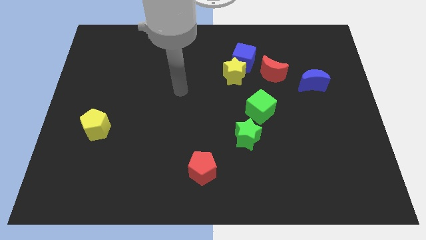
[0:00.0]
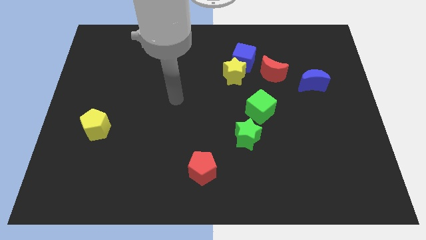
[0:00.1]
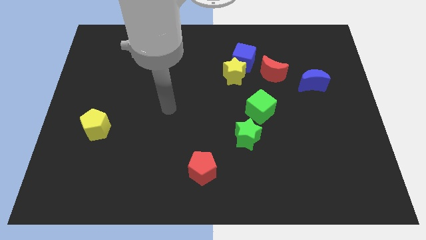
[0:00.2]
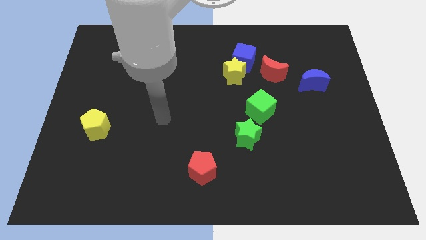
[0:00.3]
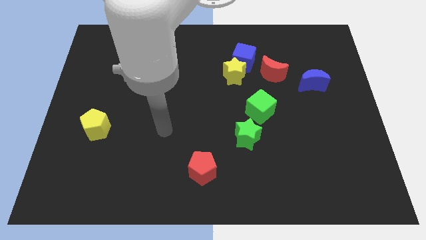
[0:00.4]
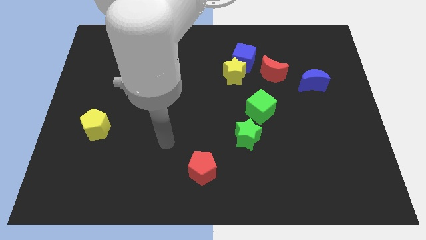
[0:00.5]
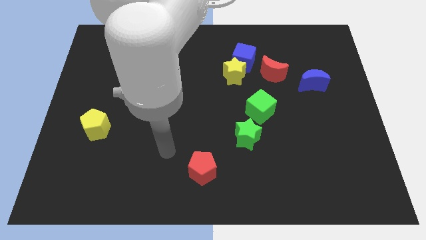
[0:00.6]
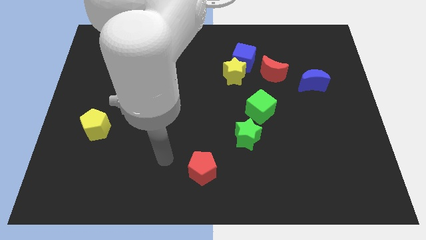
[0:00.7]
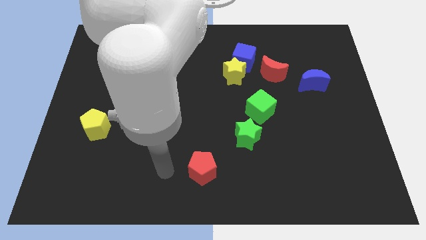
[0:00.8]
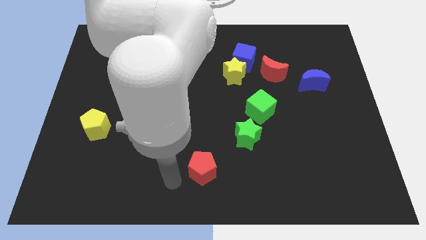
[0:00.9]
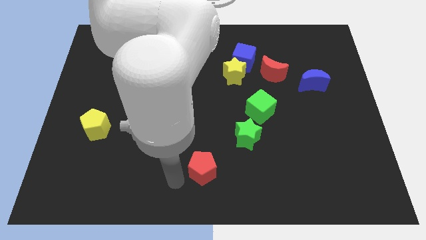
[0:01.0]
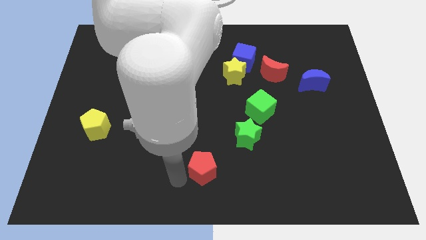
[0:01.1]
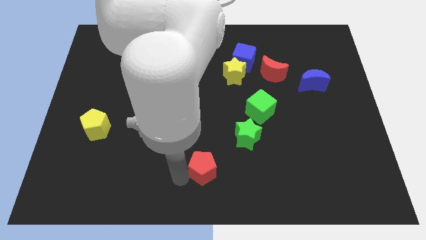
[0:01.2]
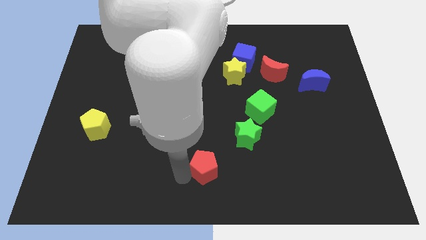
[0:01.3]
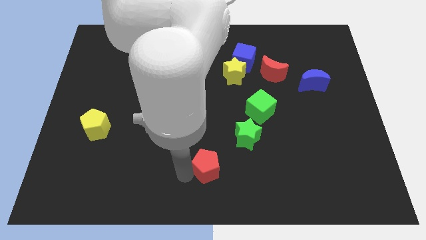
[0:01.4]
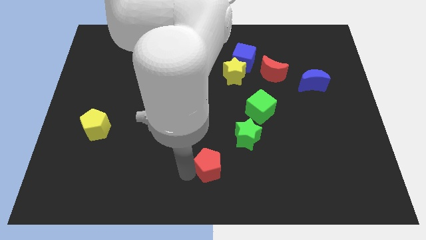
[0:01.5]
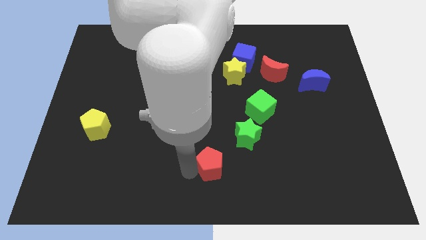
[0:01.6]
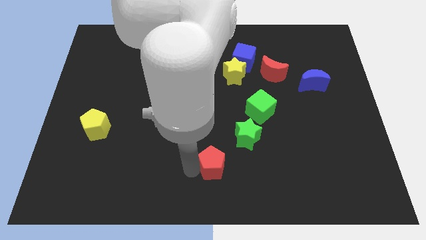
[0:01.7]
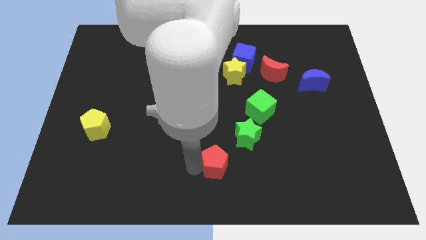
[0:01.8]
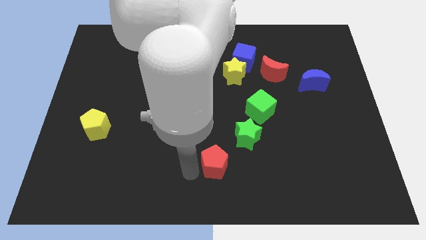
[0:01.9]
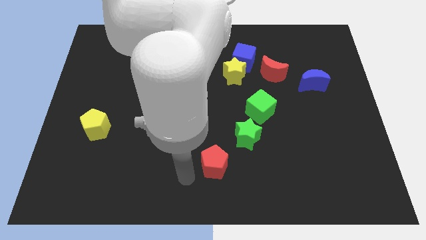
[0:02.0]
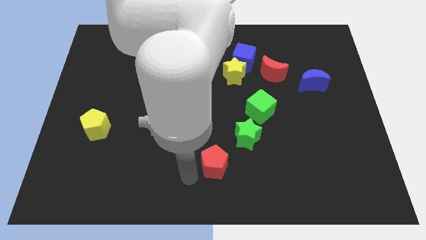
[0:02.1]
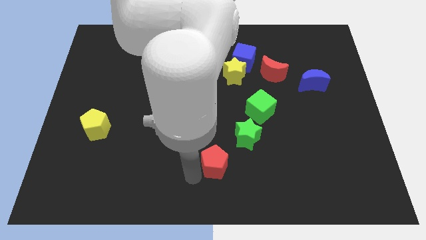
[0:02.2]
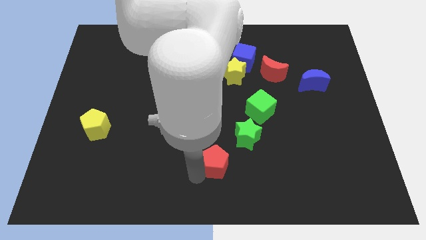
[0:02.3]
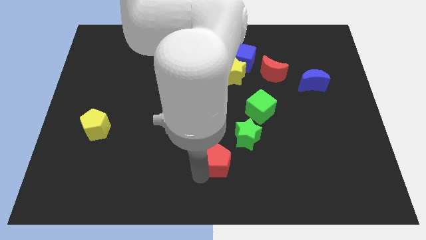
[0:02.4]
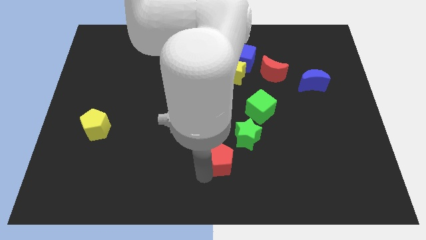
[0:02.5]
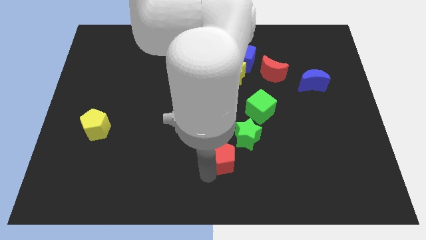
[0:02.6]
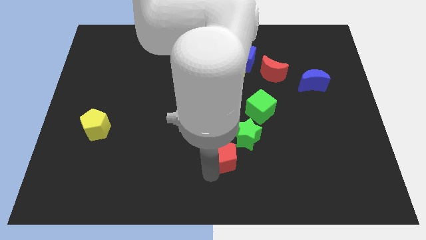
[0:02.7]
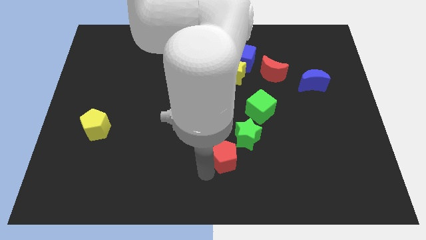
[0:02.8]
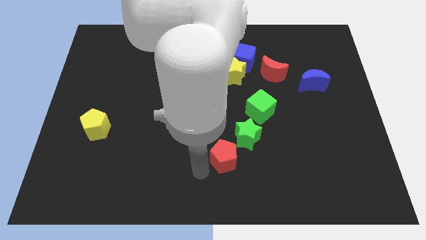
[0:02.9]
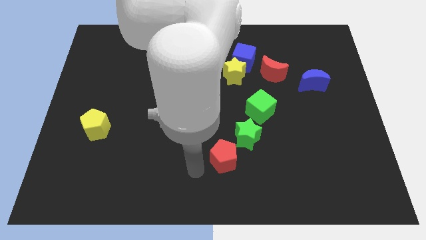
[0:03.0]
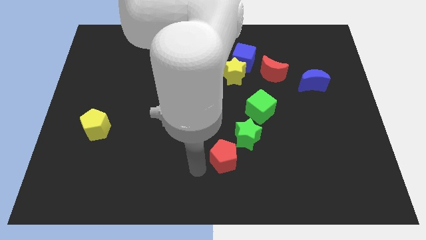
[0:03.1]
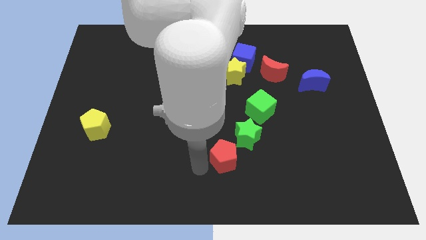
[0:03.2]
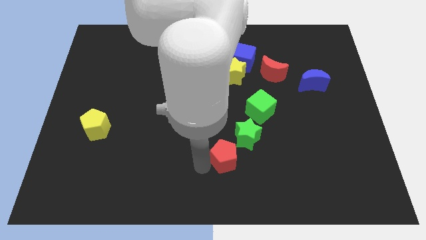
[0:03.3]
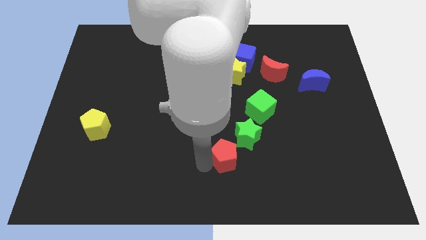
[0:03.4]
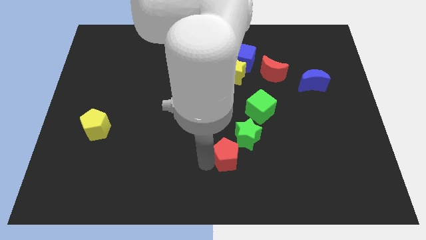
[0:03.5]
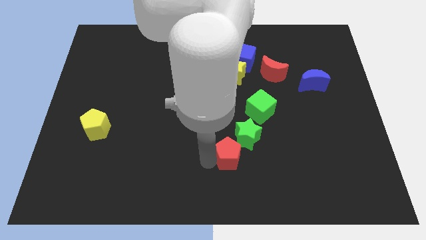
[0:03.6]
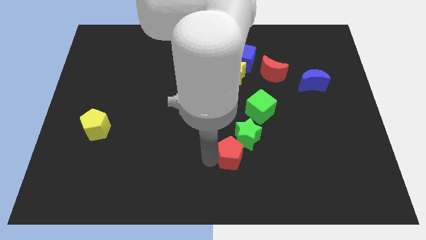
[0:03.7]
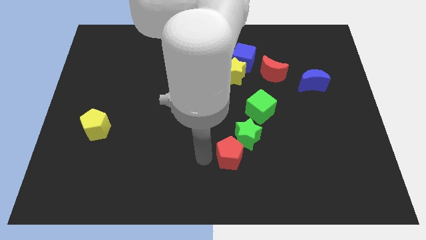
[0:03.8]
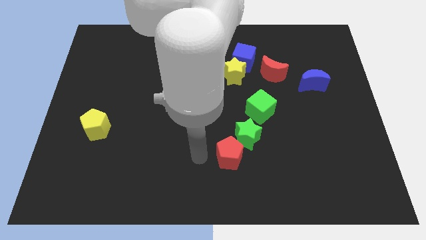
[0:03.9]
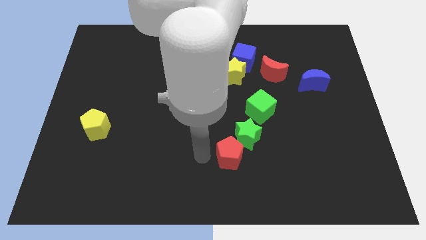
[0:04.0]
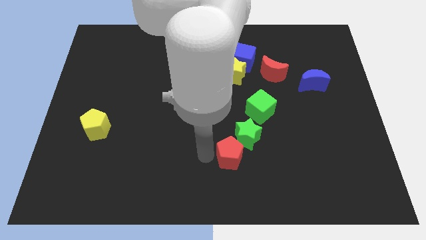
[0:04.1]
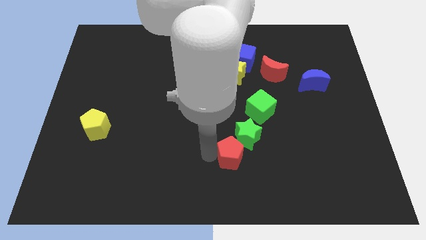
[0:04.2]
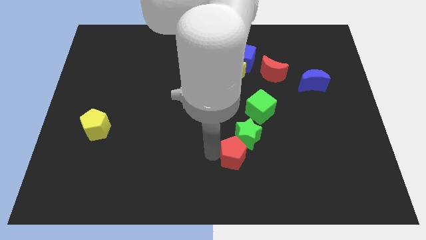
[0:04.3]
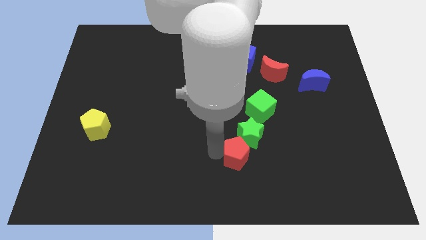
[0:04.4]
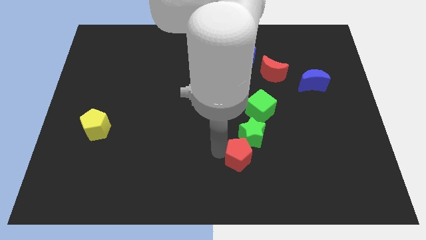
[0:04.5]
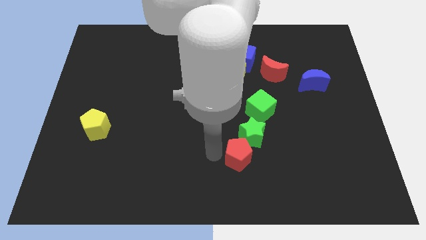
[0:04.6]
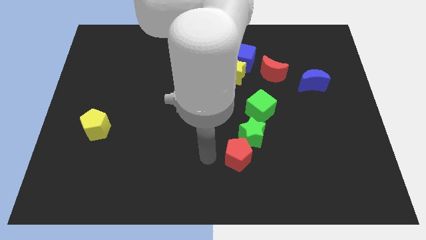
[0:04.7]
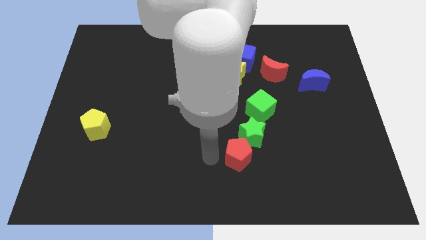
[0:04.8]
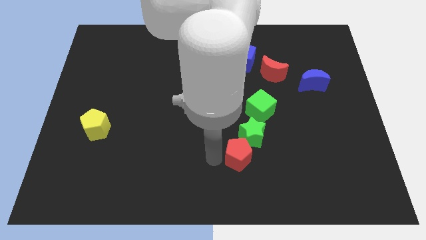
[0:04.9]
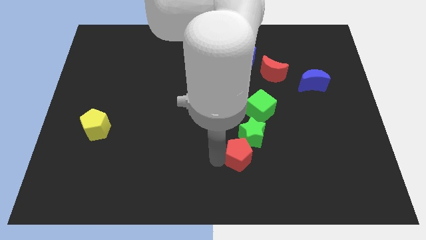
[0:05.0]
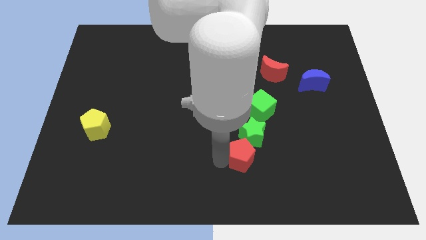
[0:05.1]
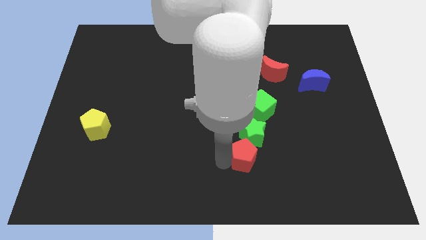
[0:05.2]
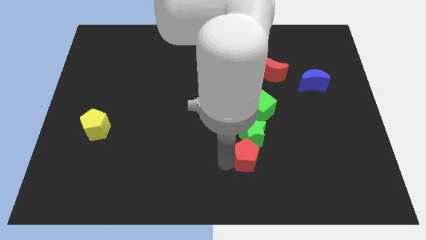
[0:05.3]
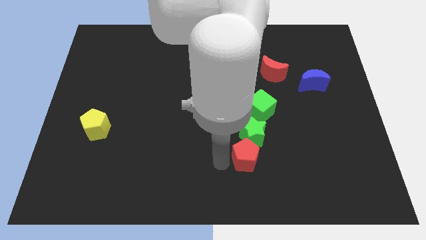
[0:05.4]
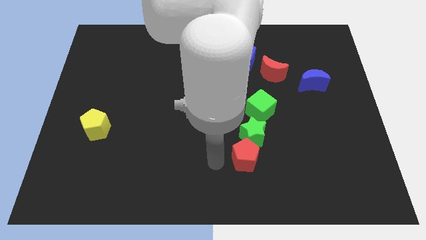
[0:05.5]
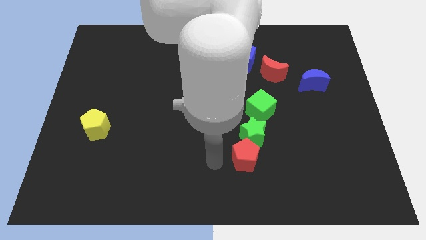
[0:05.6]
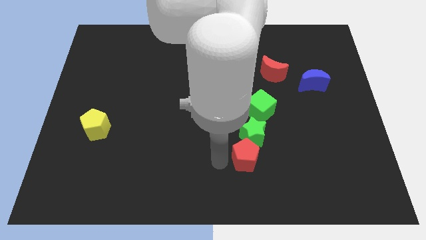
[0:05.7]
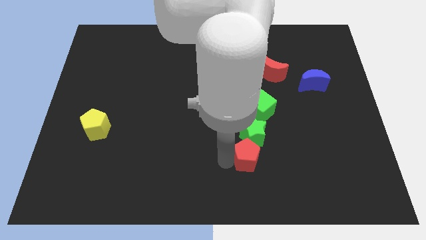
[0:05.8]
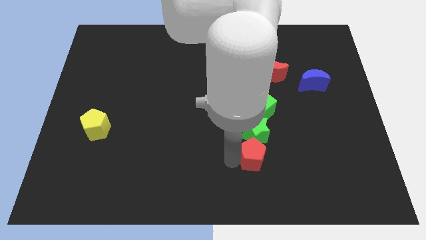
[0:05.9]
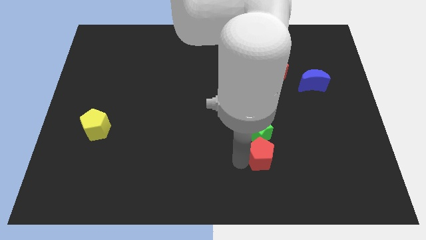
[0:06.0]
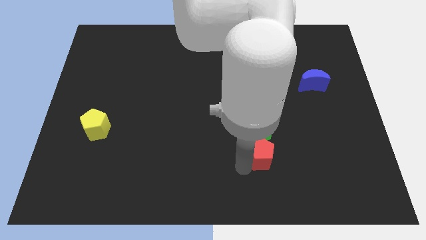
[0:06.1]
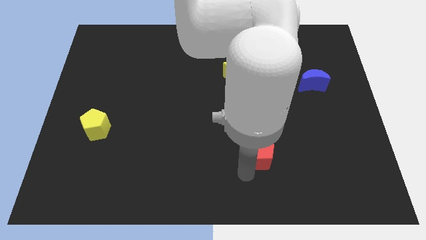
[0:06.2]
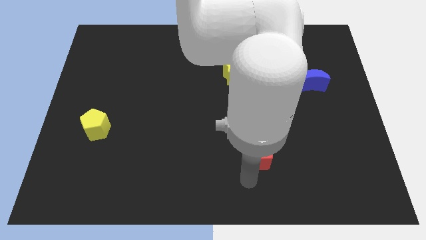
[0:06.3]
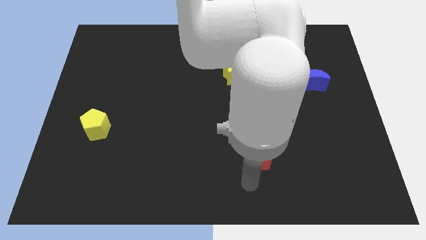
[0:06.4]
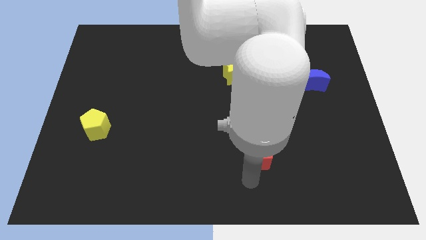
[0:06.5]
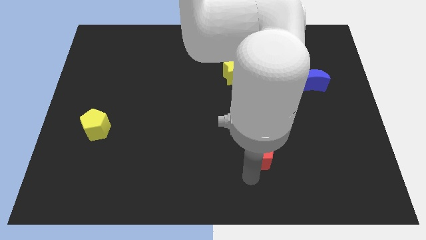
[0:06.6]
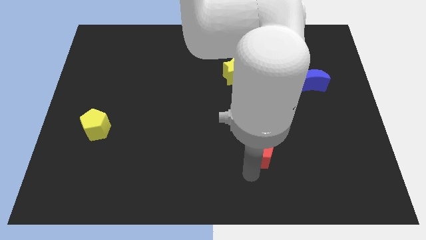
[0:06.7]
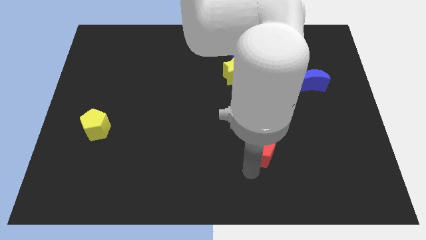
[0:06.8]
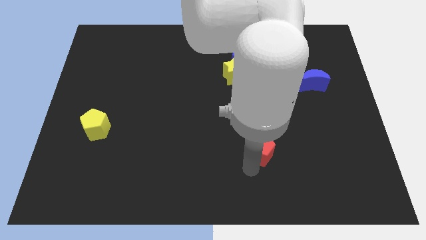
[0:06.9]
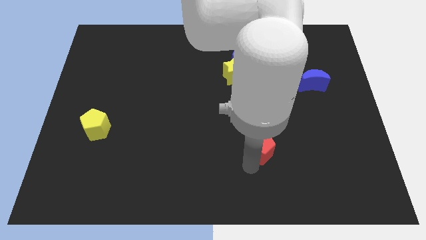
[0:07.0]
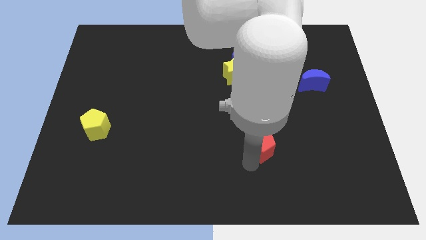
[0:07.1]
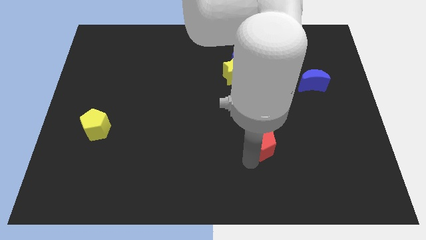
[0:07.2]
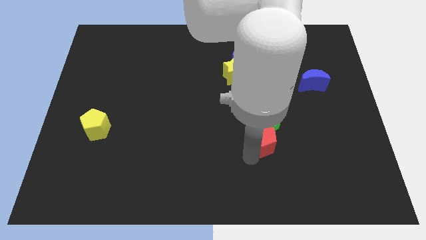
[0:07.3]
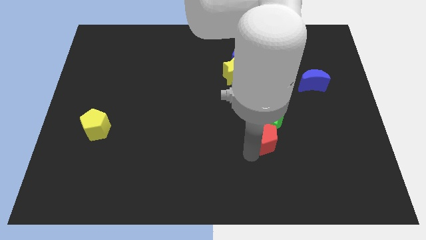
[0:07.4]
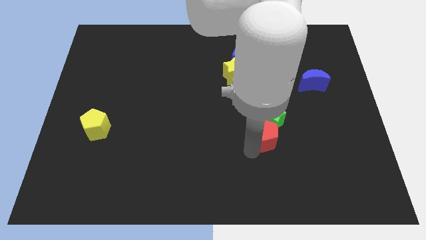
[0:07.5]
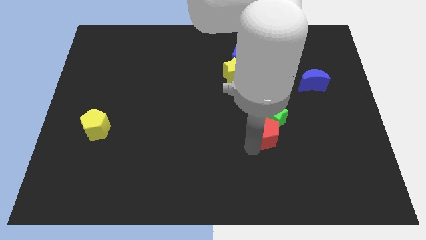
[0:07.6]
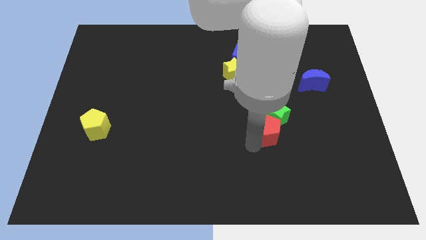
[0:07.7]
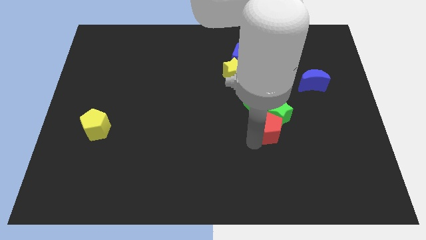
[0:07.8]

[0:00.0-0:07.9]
slide the red pentagon to the bottom right of the green cube
